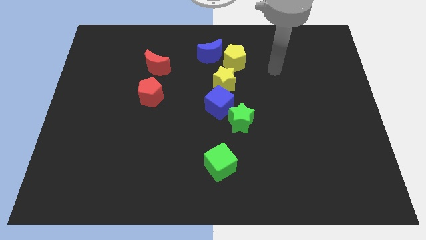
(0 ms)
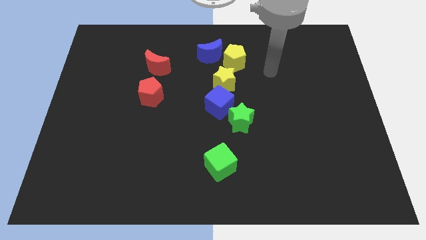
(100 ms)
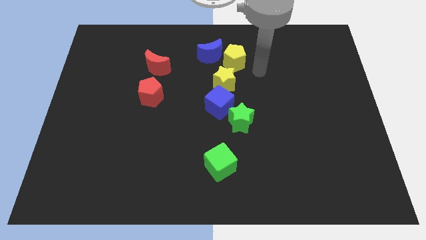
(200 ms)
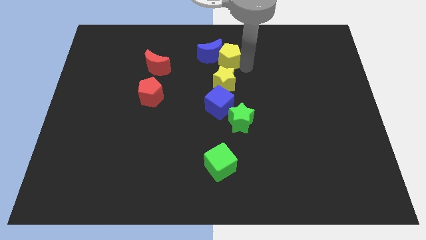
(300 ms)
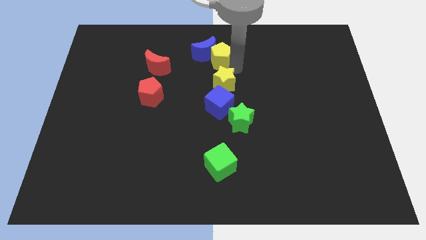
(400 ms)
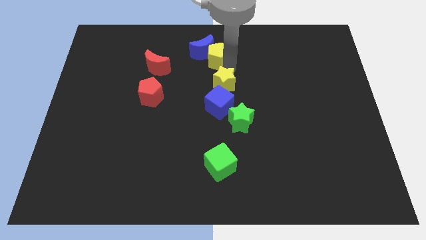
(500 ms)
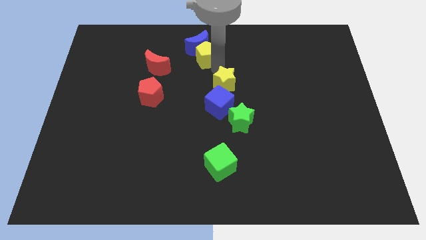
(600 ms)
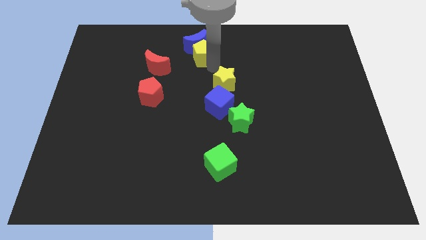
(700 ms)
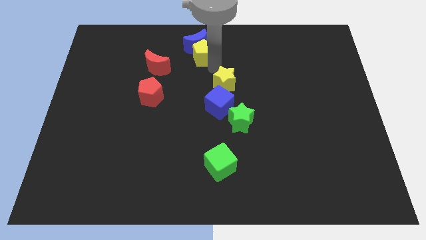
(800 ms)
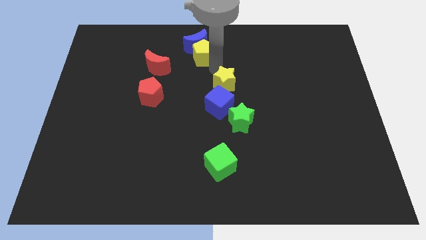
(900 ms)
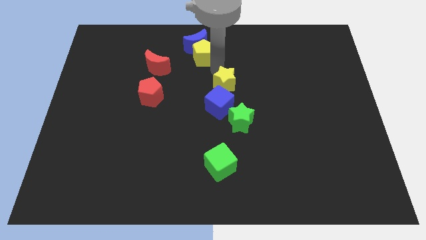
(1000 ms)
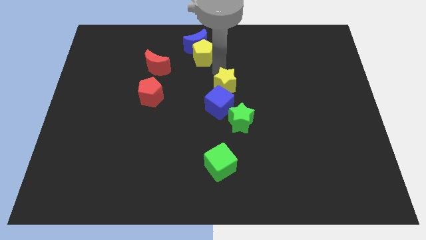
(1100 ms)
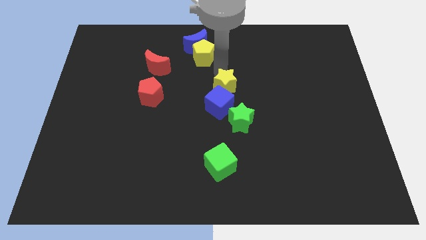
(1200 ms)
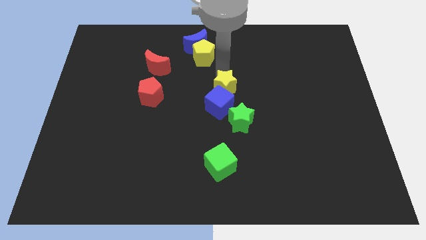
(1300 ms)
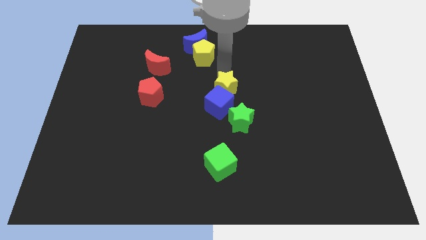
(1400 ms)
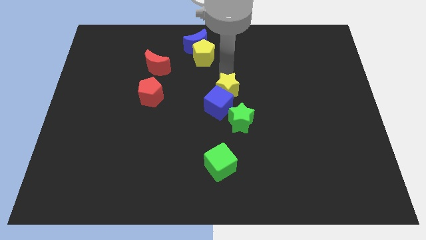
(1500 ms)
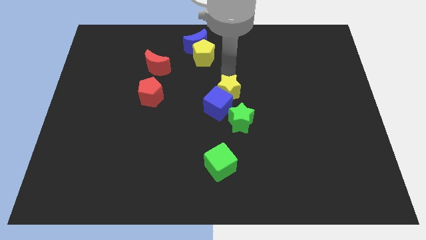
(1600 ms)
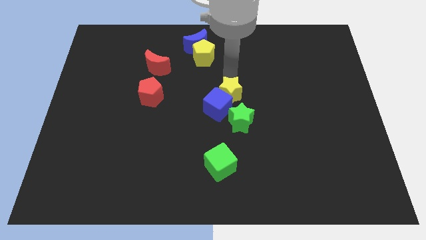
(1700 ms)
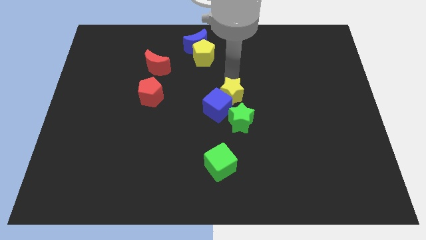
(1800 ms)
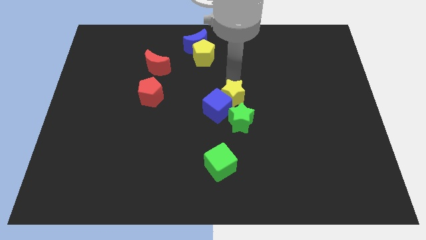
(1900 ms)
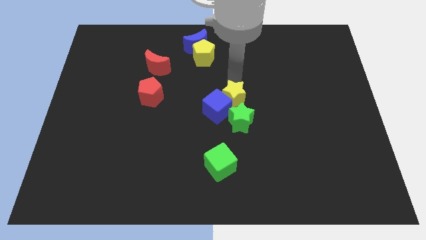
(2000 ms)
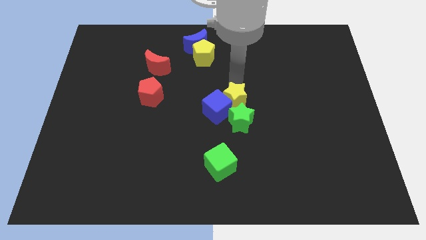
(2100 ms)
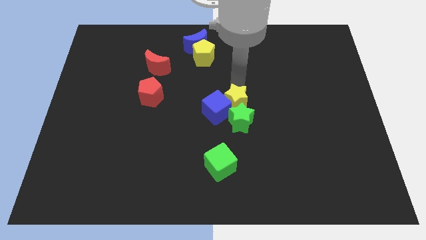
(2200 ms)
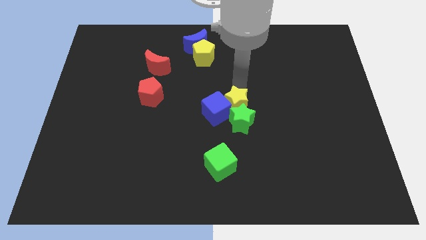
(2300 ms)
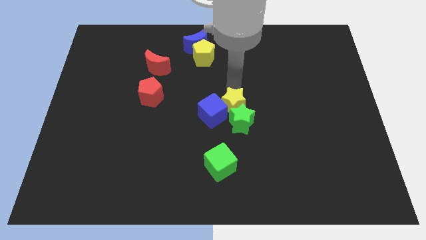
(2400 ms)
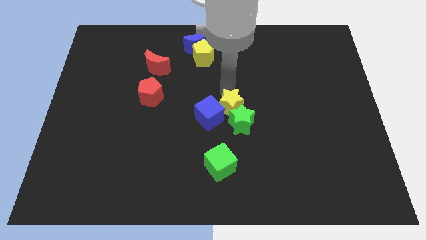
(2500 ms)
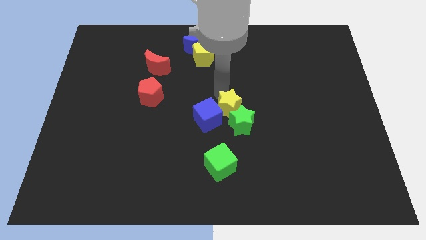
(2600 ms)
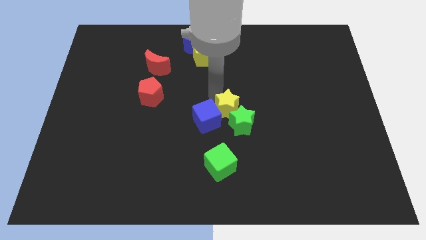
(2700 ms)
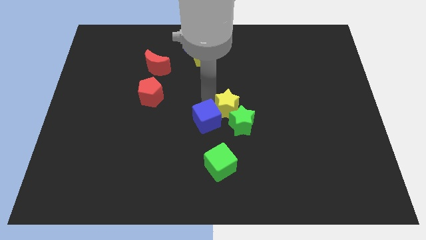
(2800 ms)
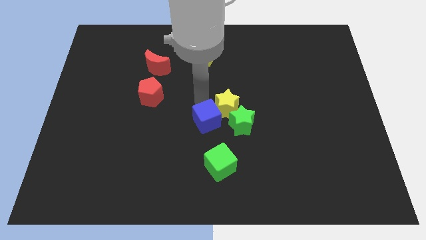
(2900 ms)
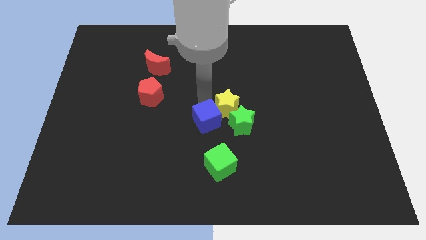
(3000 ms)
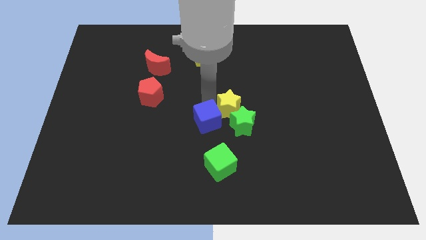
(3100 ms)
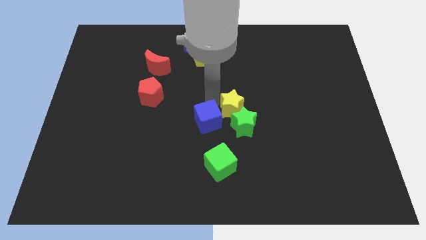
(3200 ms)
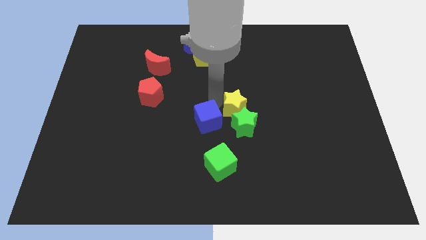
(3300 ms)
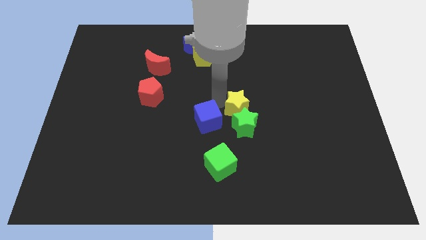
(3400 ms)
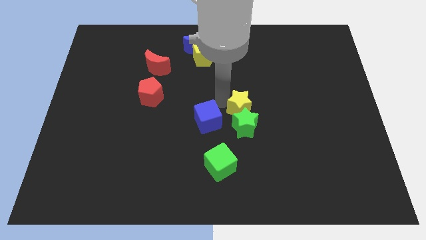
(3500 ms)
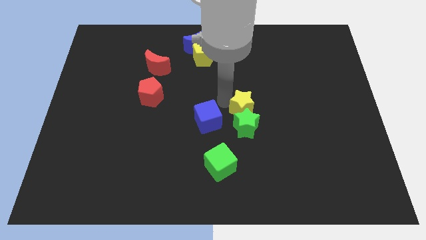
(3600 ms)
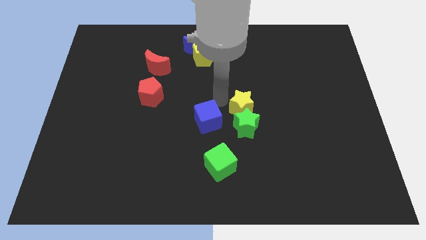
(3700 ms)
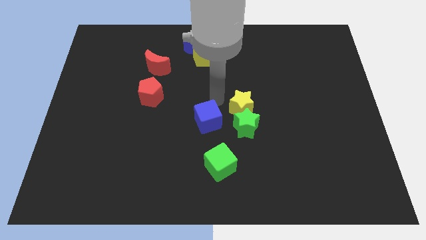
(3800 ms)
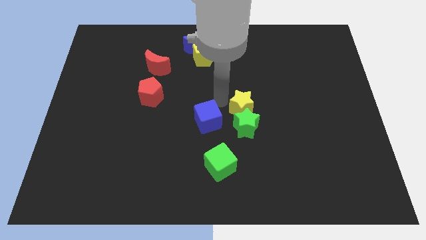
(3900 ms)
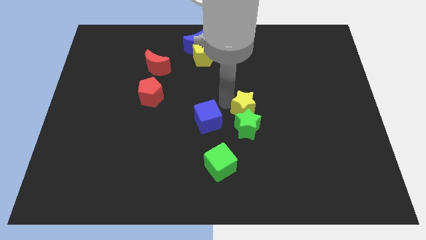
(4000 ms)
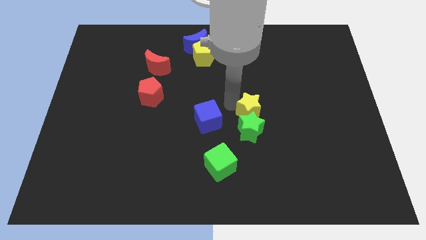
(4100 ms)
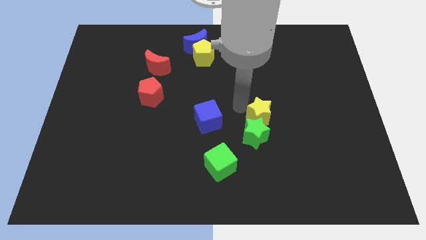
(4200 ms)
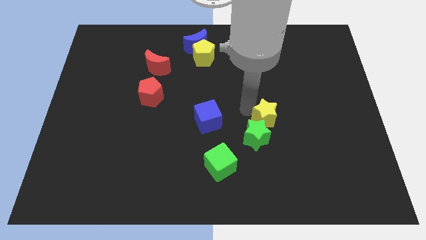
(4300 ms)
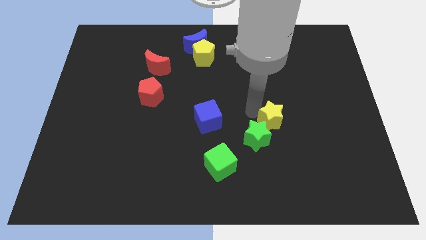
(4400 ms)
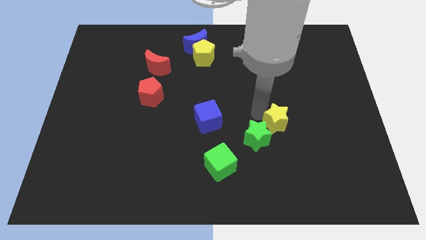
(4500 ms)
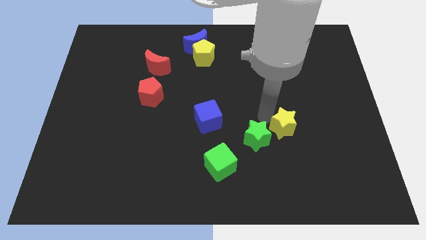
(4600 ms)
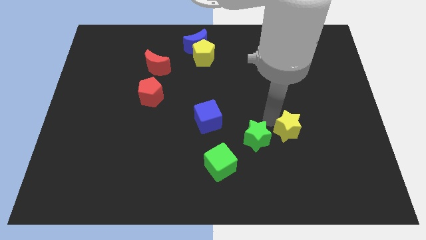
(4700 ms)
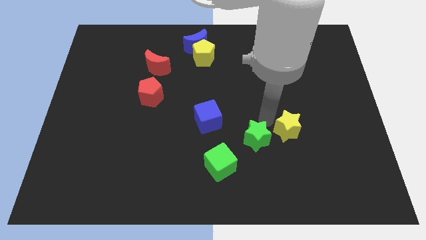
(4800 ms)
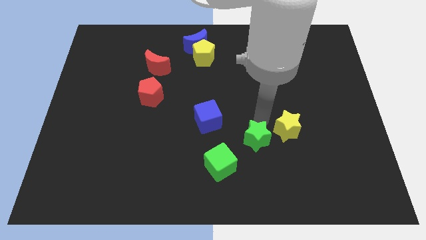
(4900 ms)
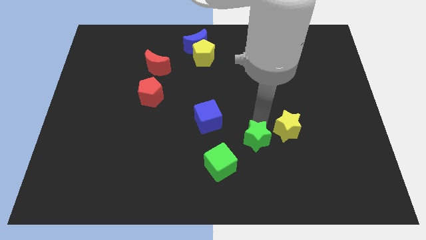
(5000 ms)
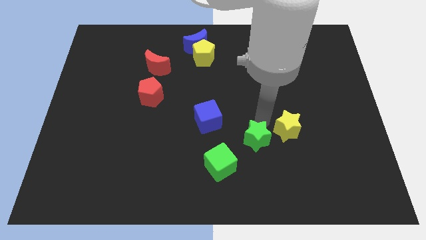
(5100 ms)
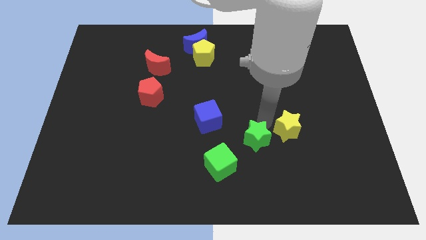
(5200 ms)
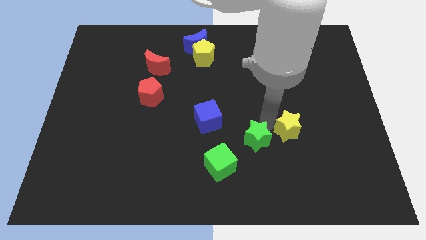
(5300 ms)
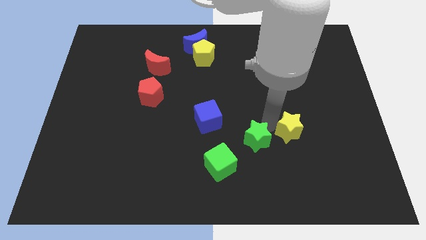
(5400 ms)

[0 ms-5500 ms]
move the yellow star down and to the right

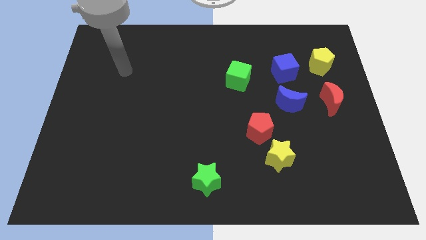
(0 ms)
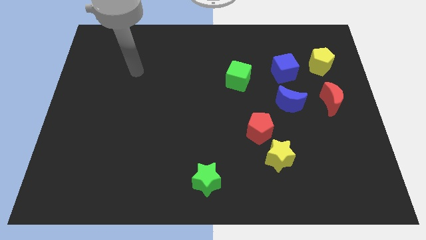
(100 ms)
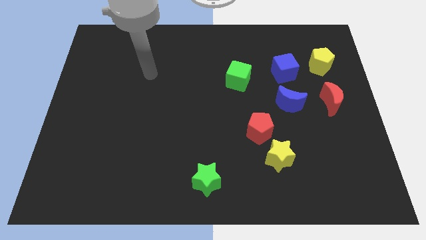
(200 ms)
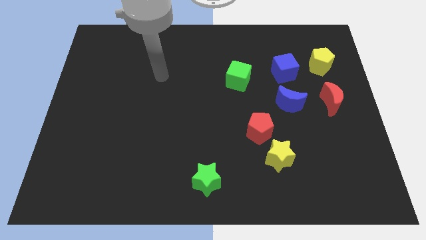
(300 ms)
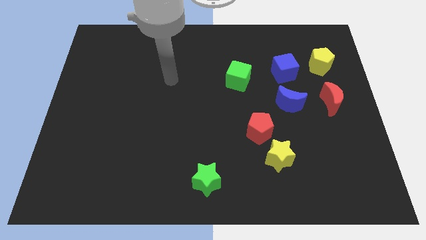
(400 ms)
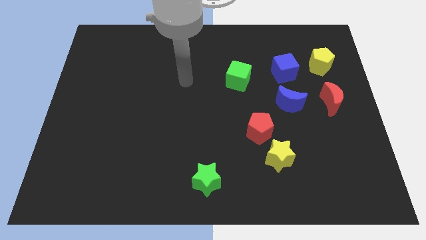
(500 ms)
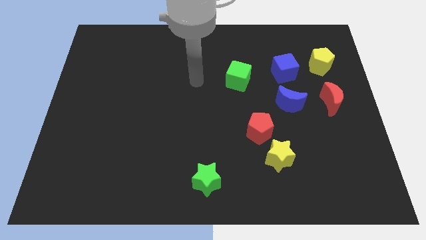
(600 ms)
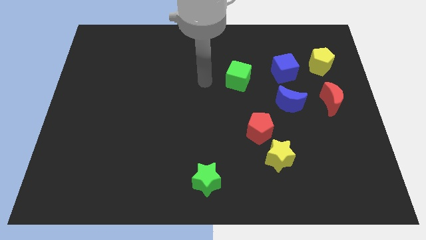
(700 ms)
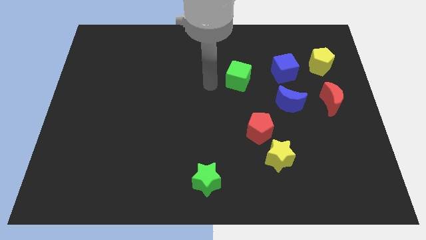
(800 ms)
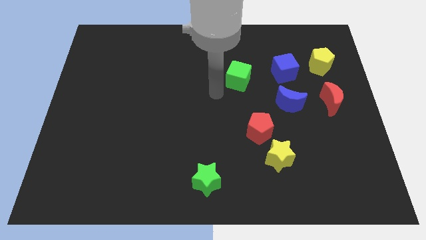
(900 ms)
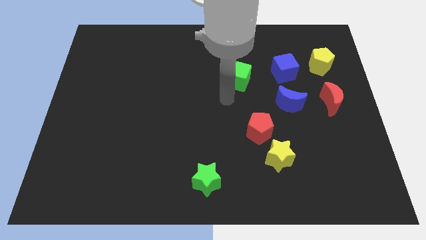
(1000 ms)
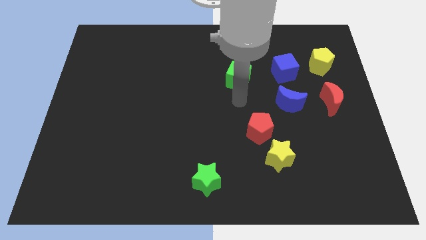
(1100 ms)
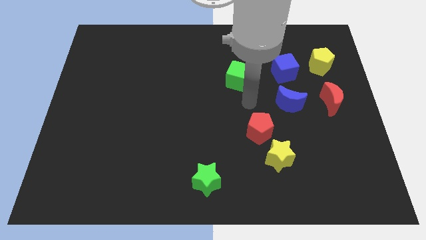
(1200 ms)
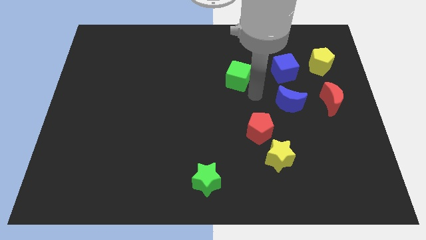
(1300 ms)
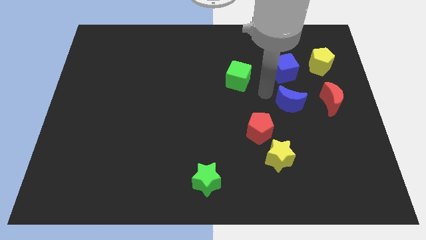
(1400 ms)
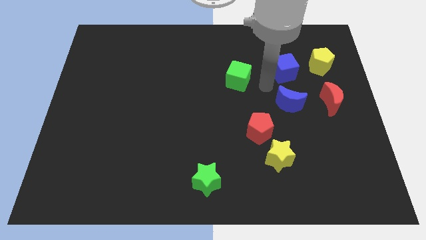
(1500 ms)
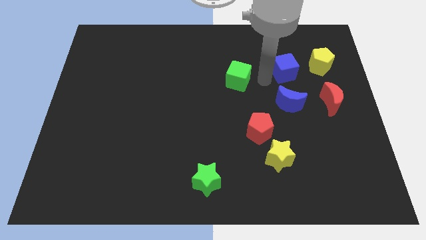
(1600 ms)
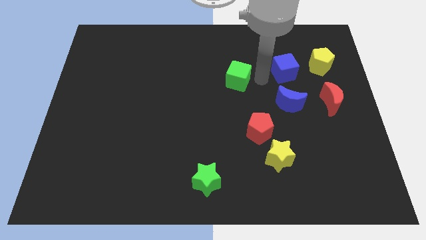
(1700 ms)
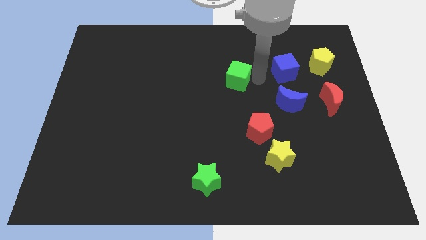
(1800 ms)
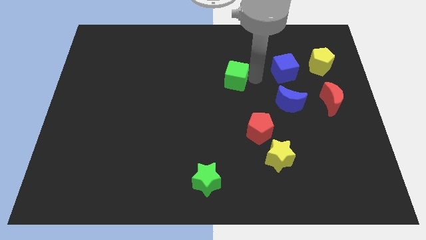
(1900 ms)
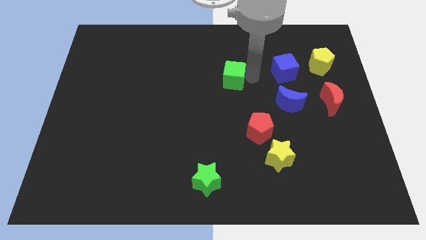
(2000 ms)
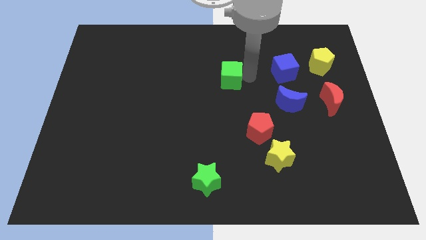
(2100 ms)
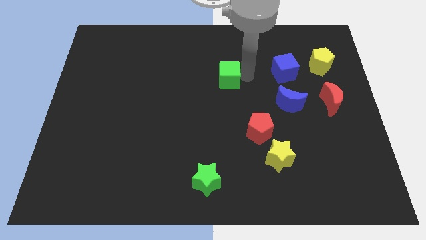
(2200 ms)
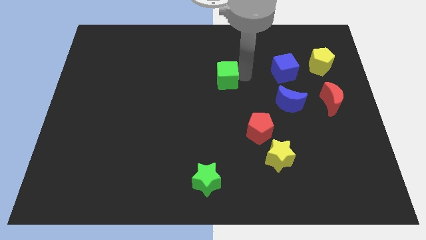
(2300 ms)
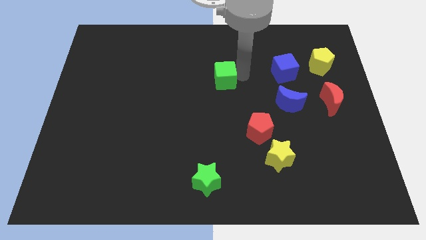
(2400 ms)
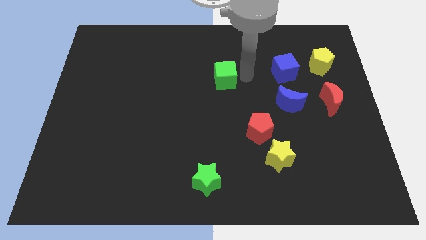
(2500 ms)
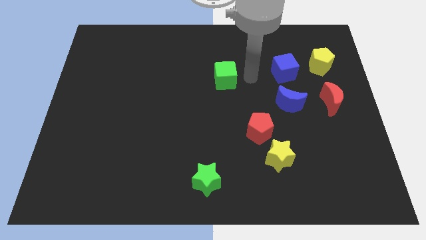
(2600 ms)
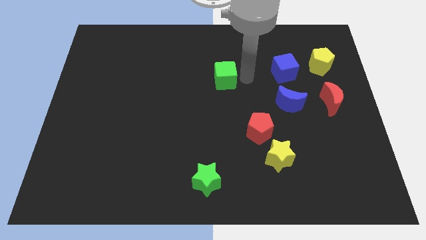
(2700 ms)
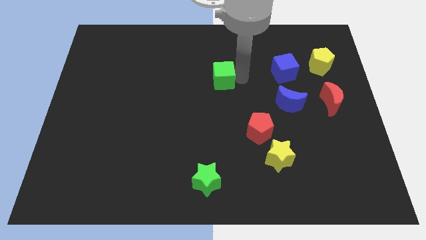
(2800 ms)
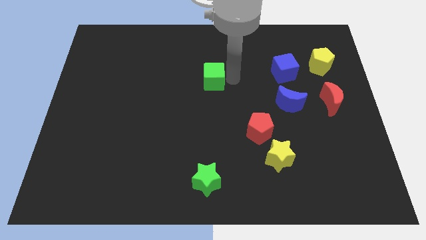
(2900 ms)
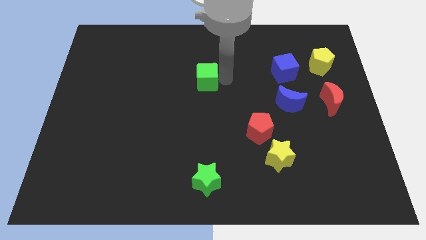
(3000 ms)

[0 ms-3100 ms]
slightly push the green cube to the left
